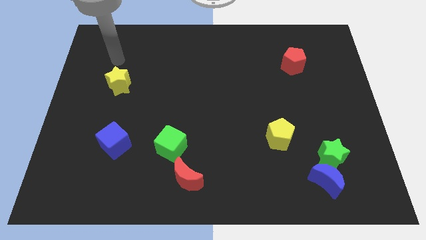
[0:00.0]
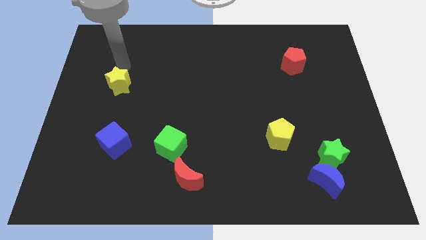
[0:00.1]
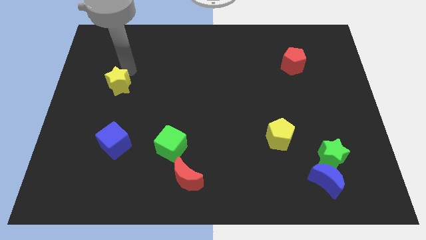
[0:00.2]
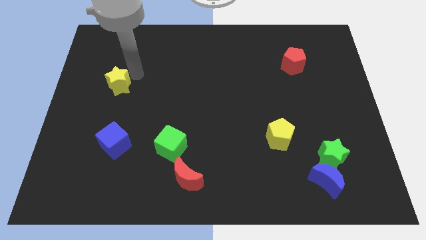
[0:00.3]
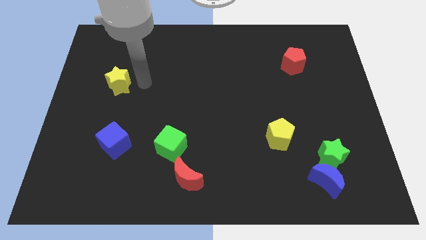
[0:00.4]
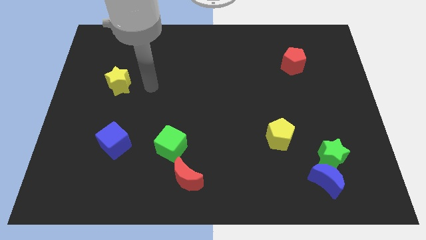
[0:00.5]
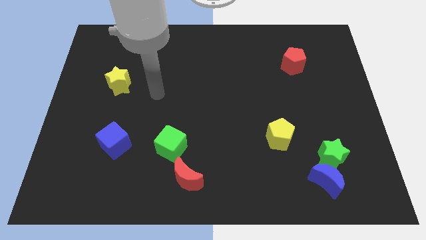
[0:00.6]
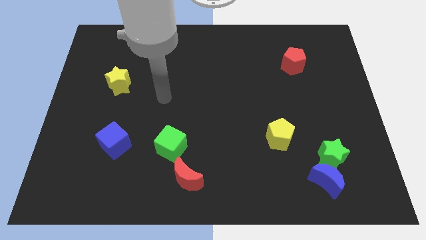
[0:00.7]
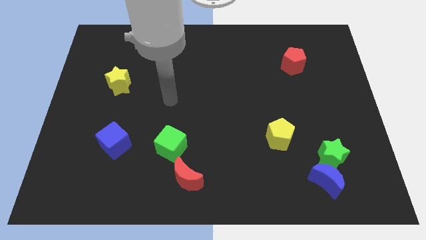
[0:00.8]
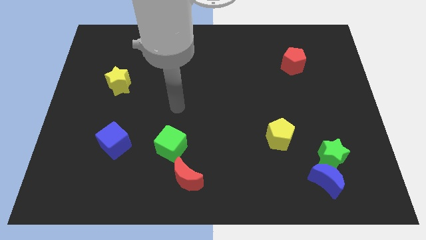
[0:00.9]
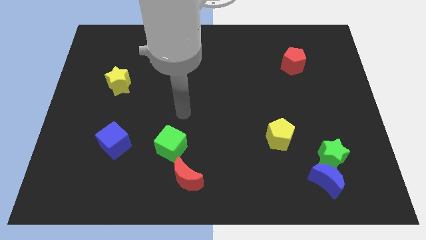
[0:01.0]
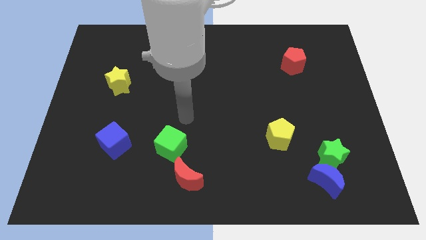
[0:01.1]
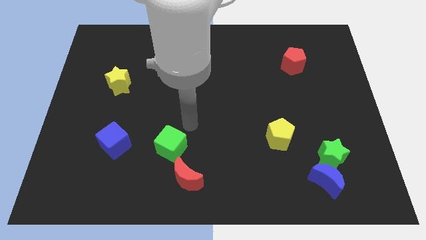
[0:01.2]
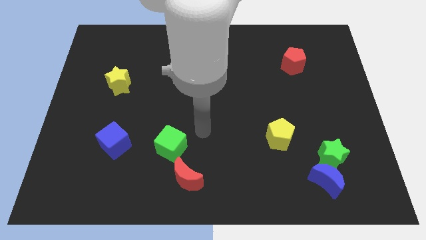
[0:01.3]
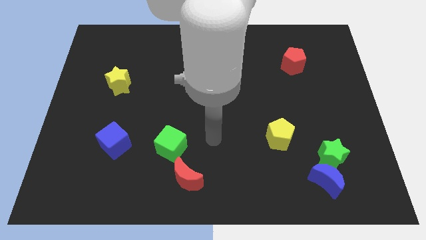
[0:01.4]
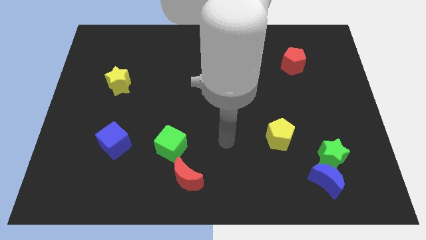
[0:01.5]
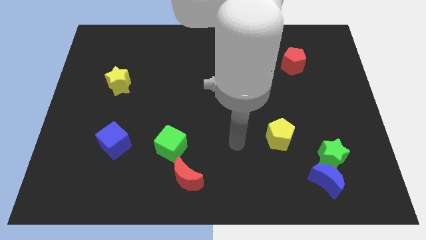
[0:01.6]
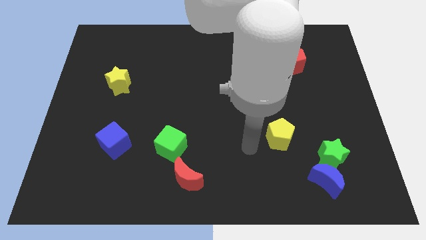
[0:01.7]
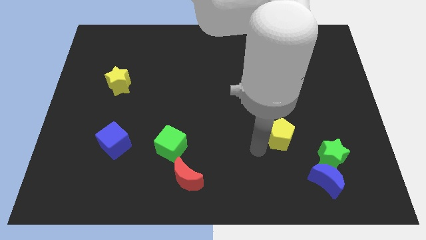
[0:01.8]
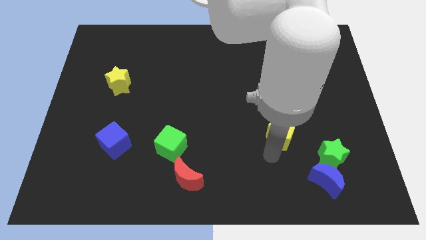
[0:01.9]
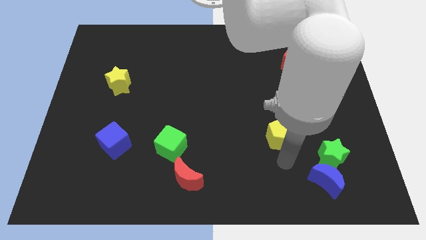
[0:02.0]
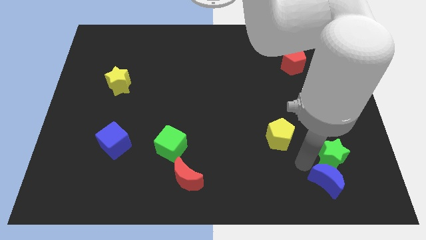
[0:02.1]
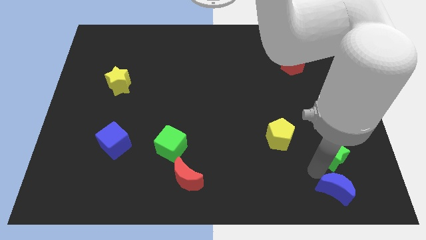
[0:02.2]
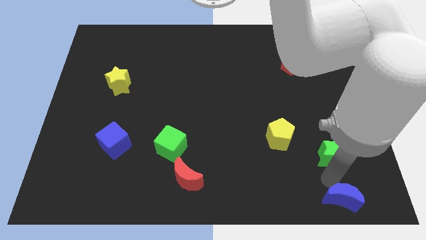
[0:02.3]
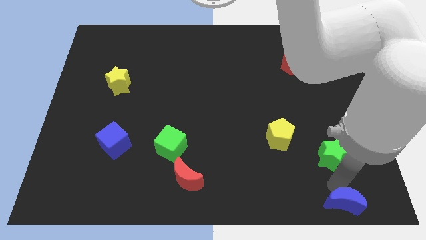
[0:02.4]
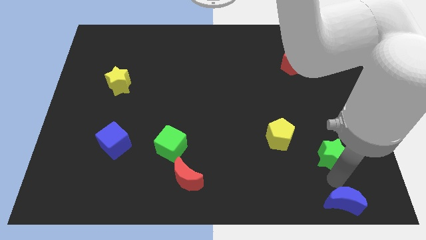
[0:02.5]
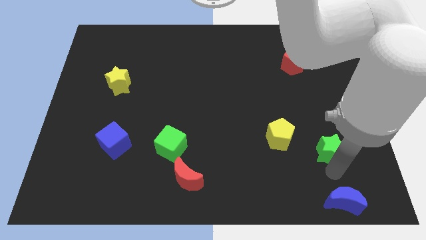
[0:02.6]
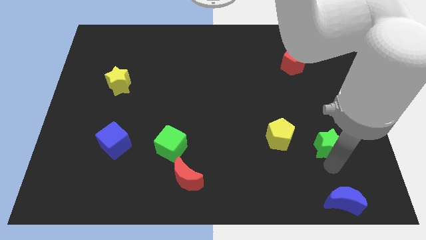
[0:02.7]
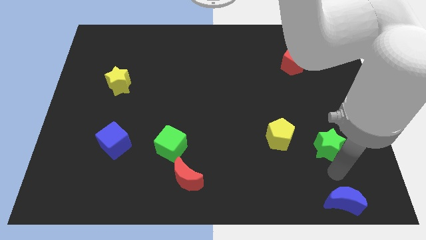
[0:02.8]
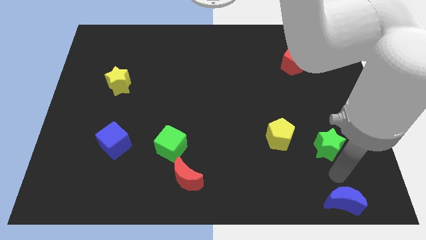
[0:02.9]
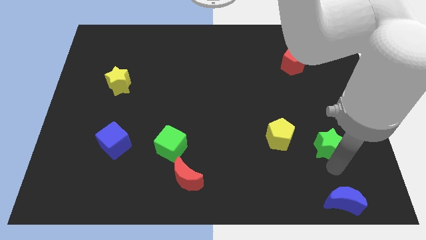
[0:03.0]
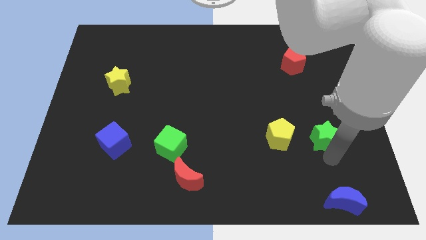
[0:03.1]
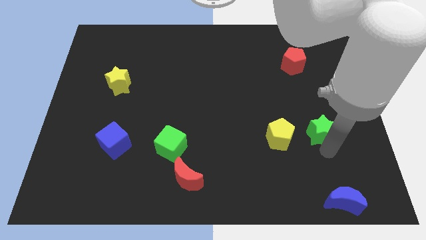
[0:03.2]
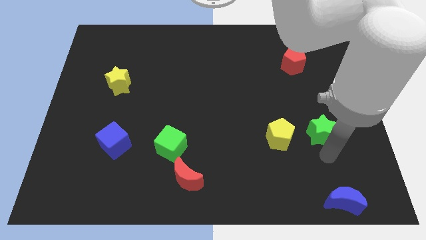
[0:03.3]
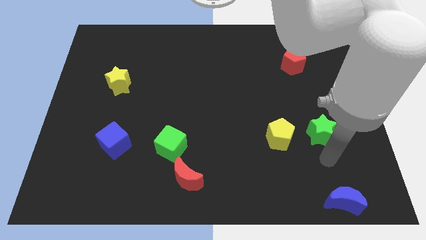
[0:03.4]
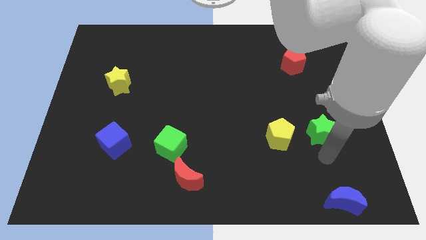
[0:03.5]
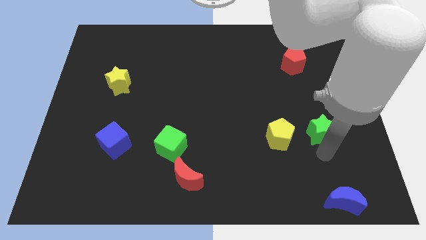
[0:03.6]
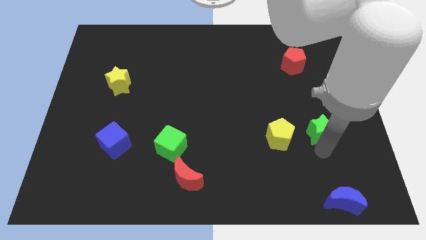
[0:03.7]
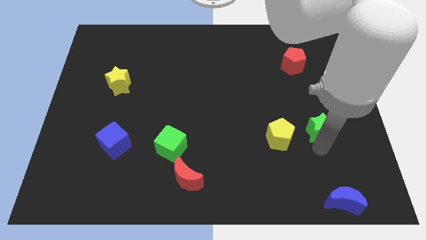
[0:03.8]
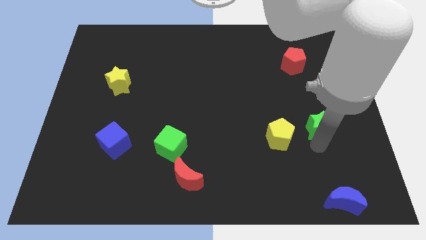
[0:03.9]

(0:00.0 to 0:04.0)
push the green star up slightly

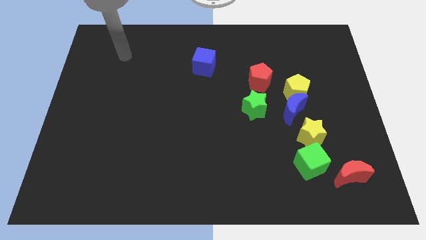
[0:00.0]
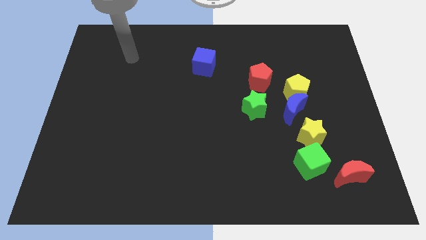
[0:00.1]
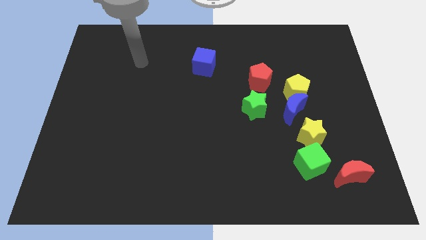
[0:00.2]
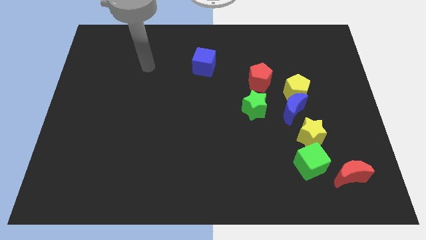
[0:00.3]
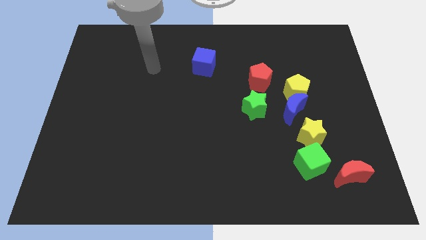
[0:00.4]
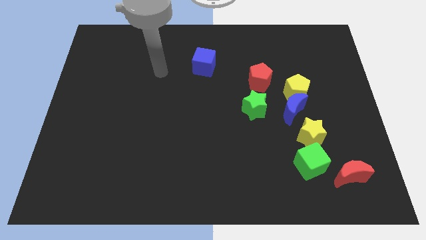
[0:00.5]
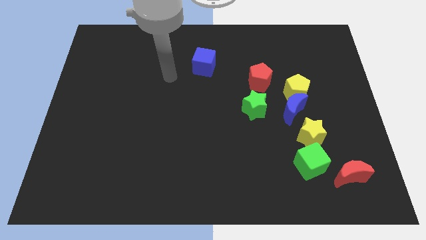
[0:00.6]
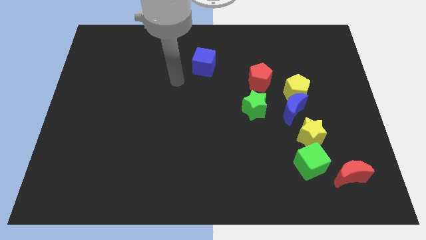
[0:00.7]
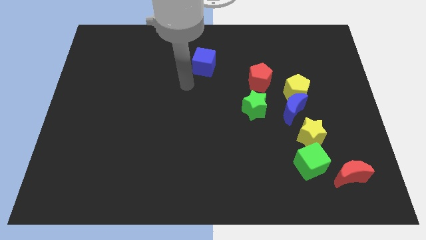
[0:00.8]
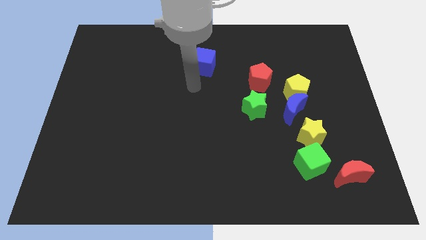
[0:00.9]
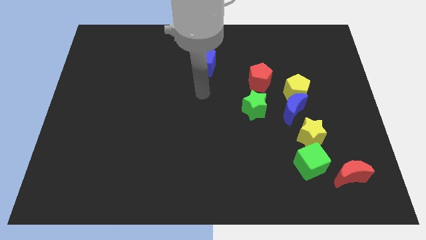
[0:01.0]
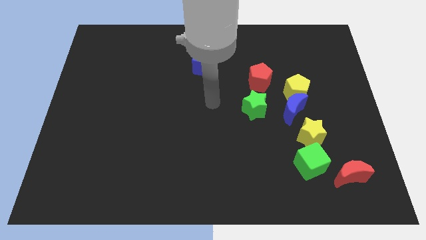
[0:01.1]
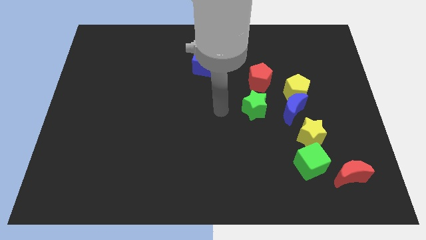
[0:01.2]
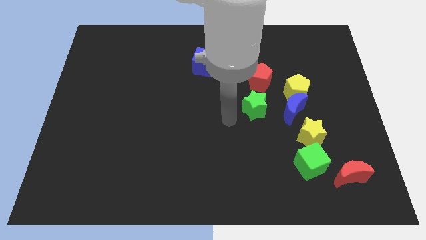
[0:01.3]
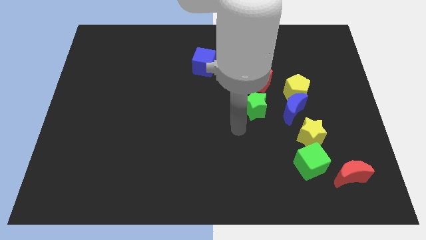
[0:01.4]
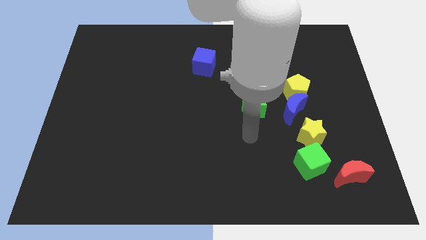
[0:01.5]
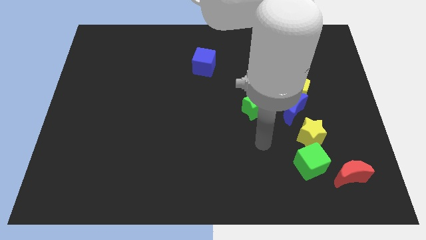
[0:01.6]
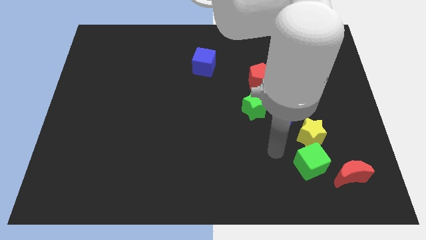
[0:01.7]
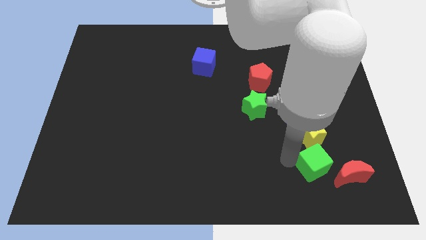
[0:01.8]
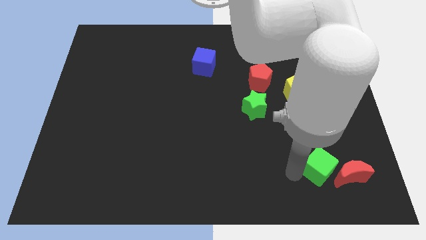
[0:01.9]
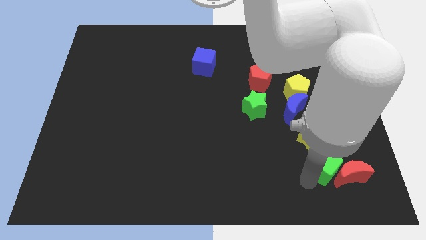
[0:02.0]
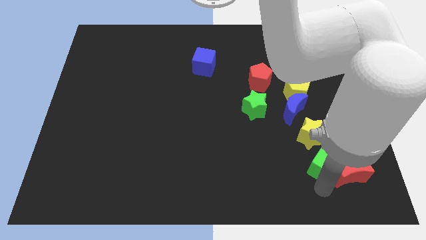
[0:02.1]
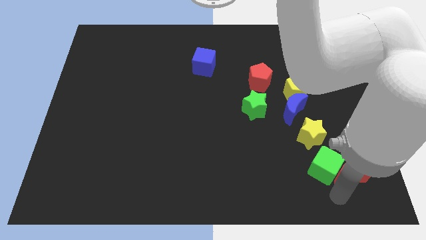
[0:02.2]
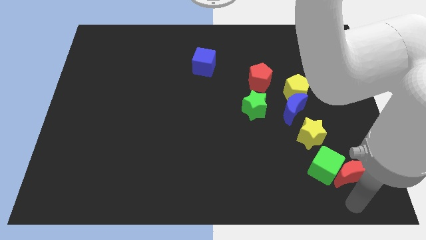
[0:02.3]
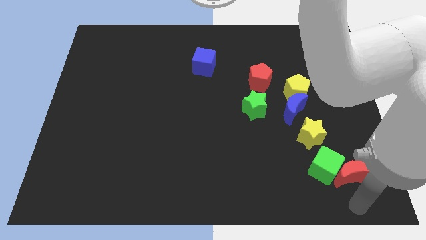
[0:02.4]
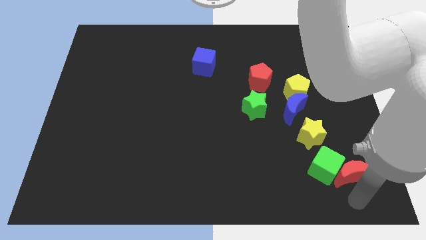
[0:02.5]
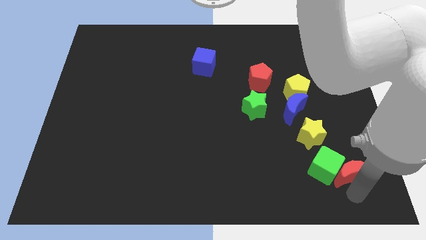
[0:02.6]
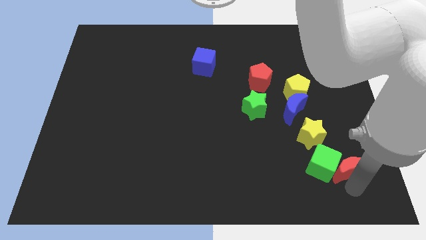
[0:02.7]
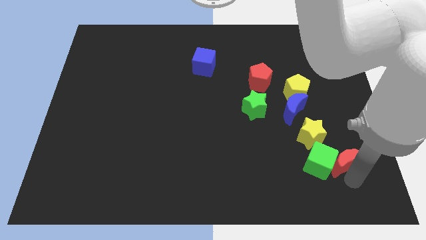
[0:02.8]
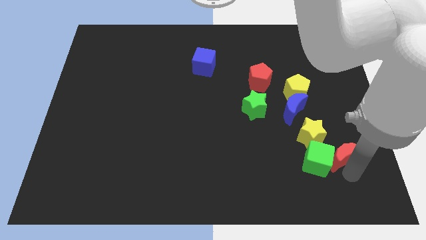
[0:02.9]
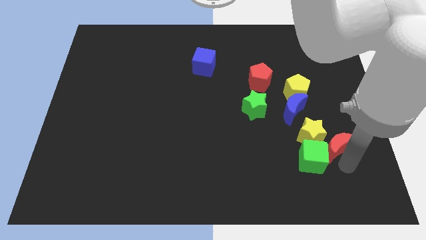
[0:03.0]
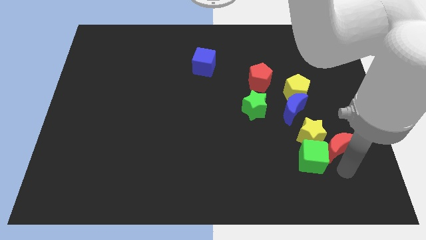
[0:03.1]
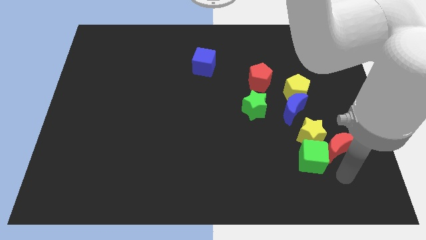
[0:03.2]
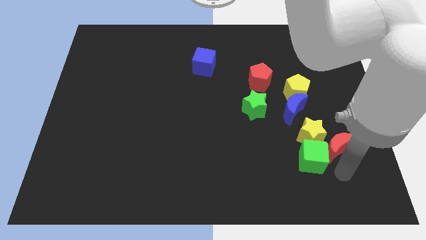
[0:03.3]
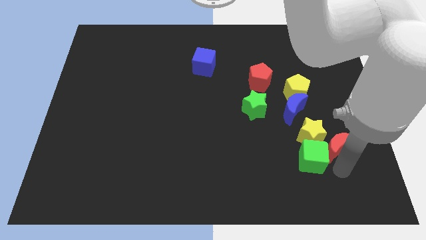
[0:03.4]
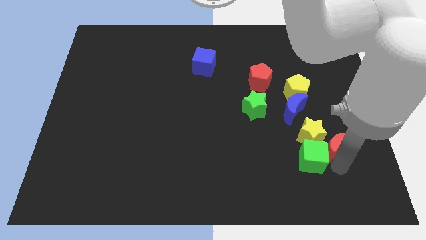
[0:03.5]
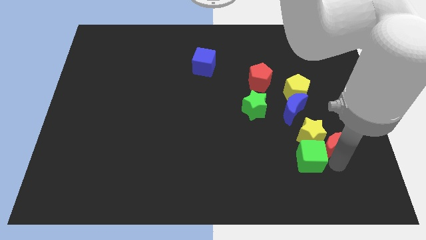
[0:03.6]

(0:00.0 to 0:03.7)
slide the red moon a little up

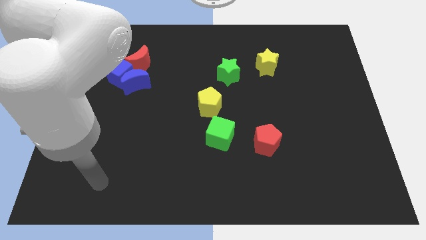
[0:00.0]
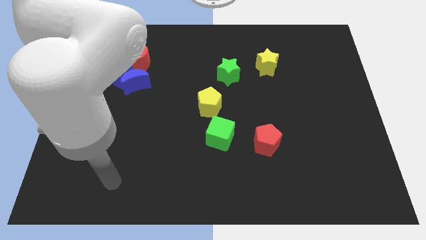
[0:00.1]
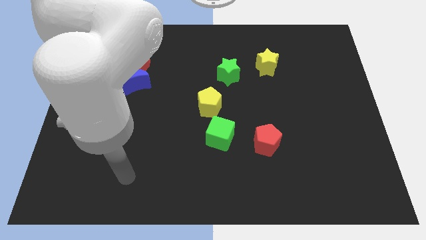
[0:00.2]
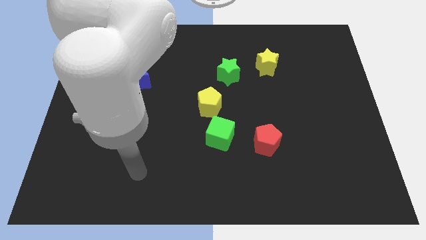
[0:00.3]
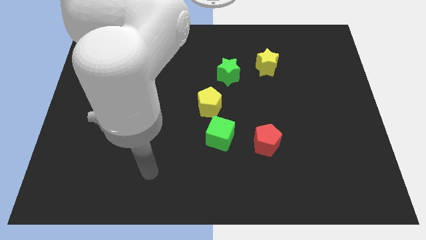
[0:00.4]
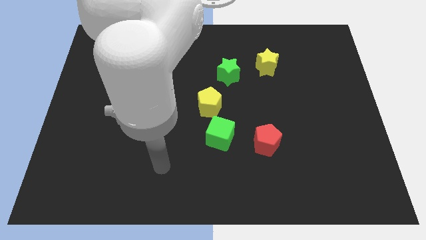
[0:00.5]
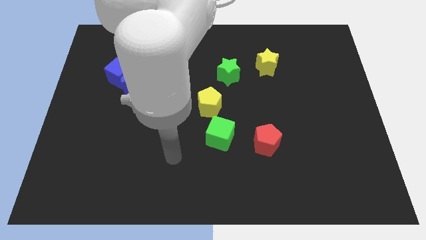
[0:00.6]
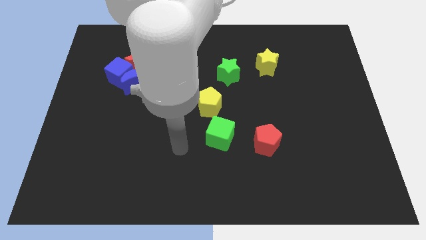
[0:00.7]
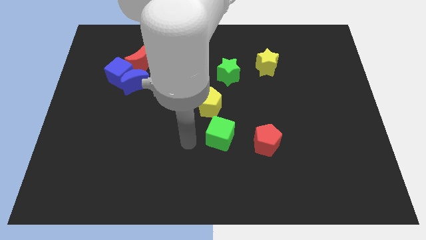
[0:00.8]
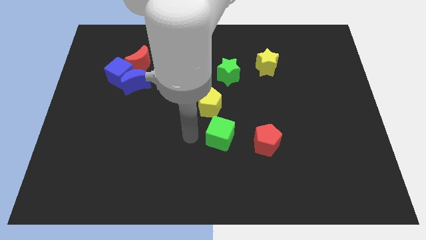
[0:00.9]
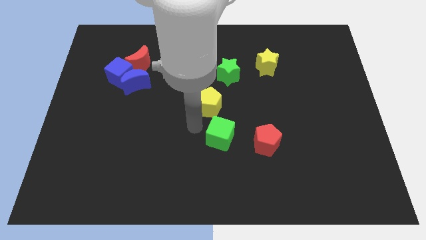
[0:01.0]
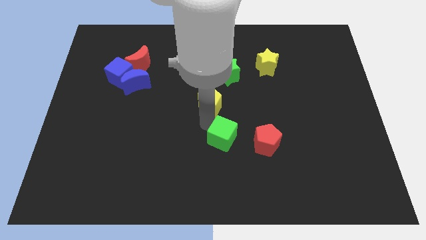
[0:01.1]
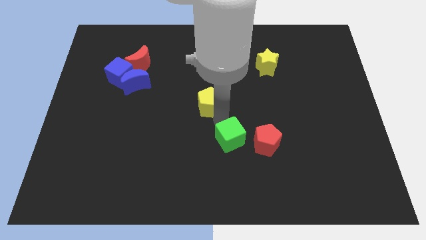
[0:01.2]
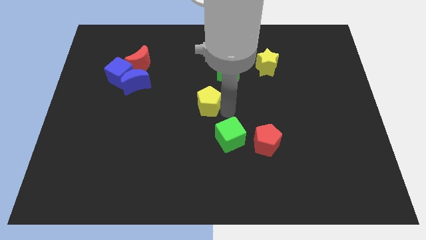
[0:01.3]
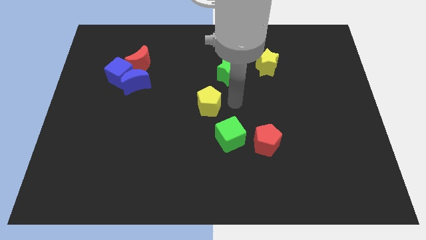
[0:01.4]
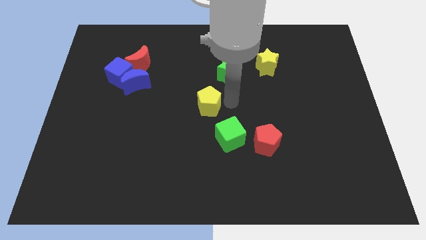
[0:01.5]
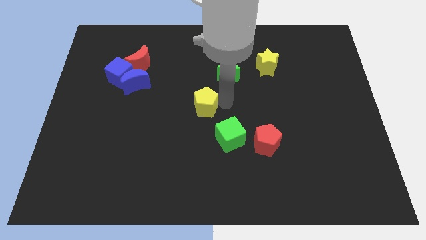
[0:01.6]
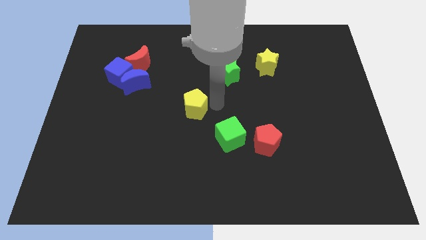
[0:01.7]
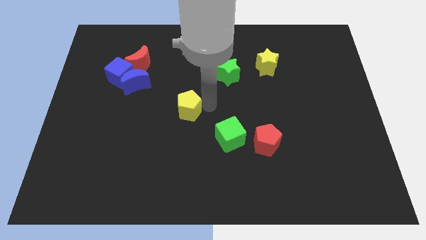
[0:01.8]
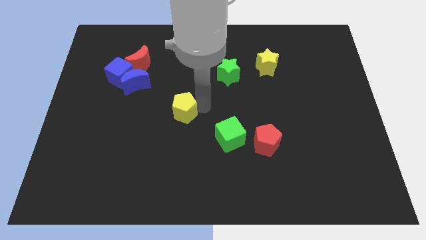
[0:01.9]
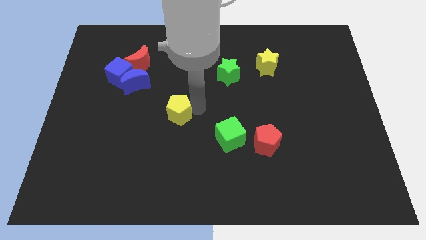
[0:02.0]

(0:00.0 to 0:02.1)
move the yellow pentagon left a little
